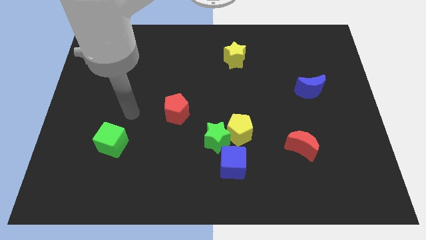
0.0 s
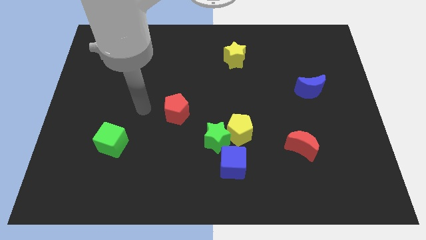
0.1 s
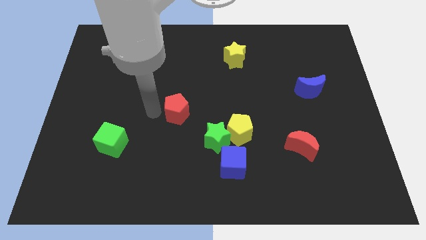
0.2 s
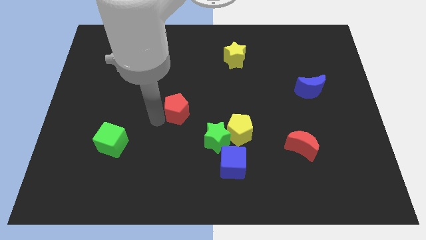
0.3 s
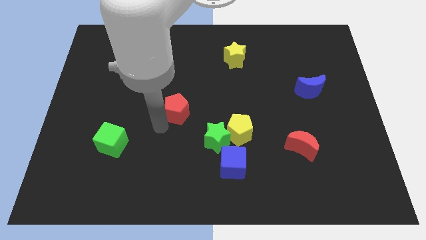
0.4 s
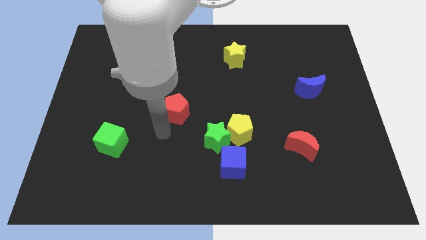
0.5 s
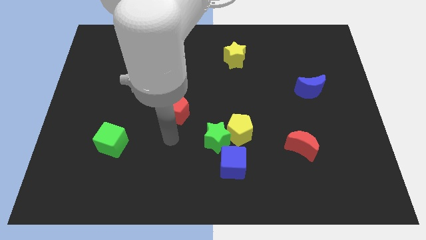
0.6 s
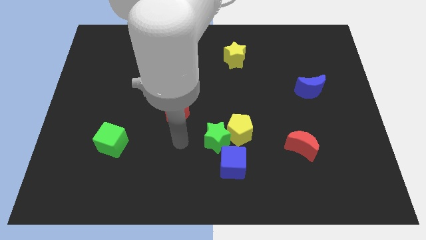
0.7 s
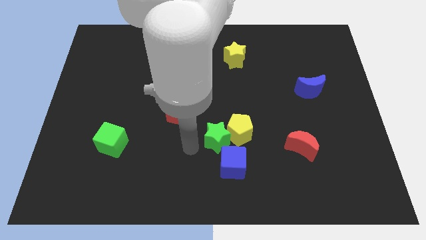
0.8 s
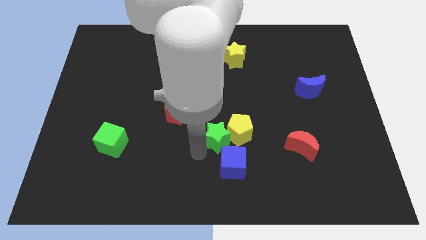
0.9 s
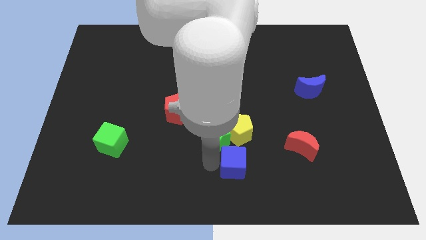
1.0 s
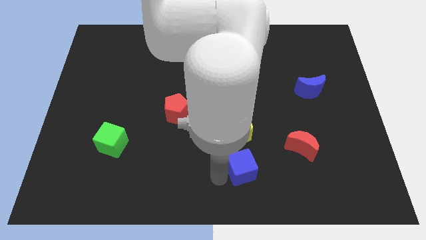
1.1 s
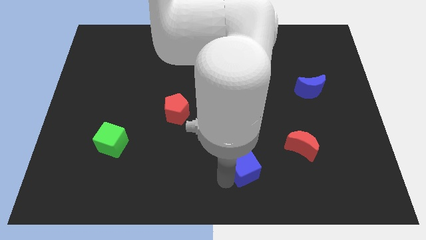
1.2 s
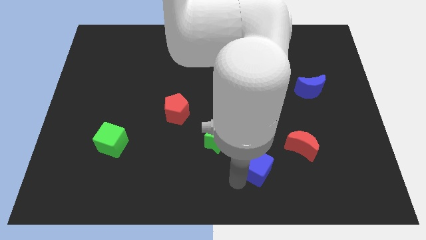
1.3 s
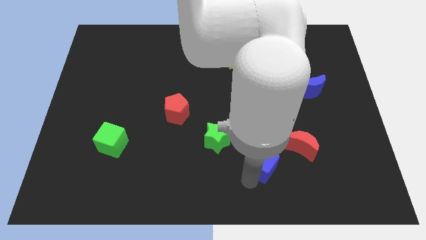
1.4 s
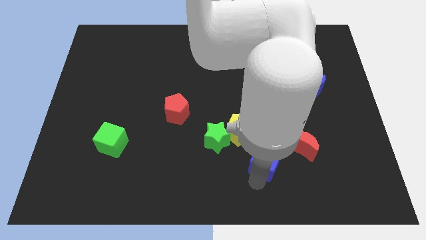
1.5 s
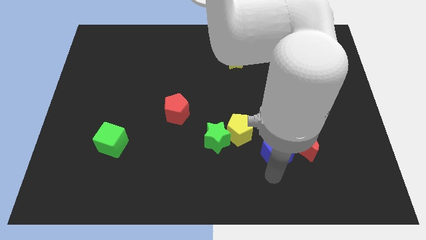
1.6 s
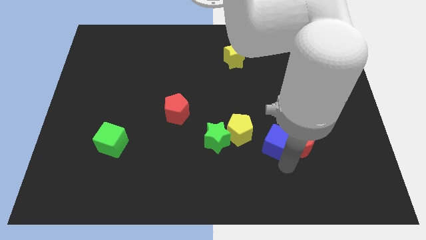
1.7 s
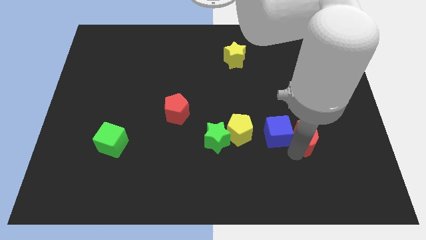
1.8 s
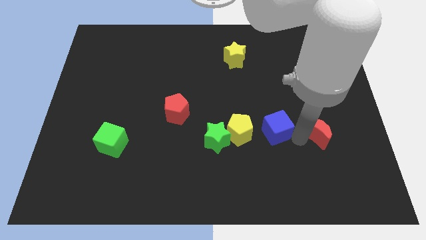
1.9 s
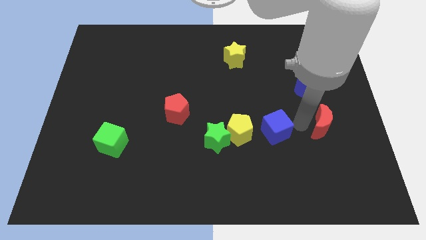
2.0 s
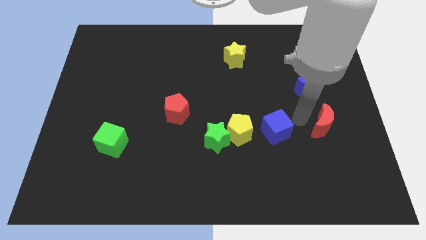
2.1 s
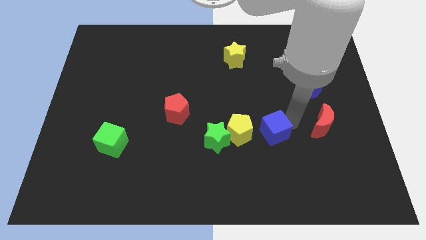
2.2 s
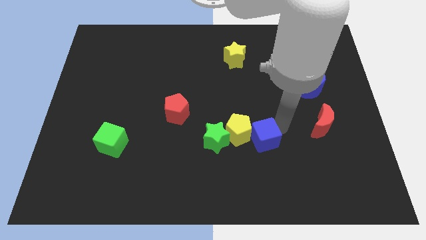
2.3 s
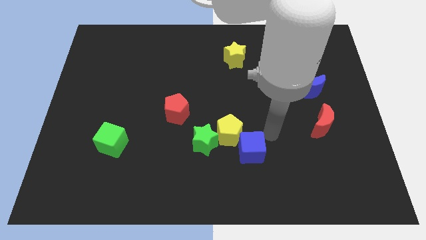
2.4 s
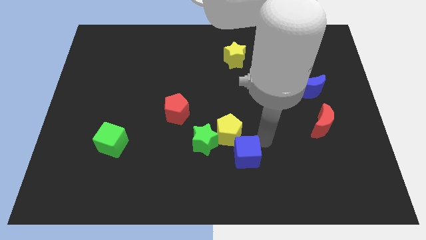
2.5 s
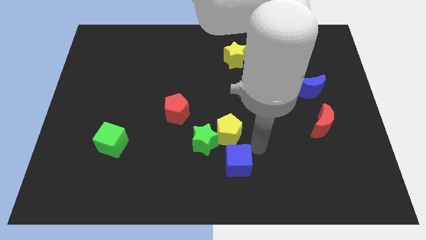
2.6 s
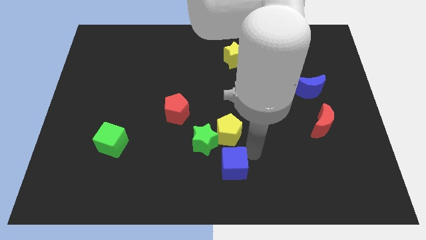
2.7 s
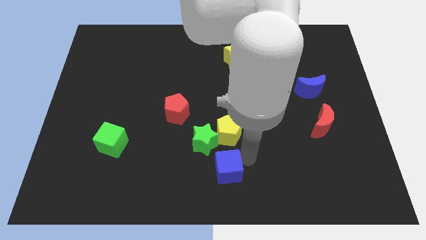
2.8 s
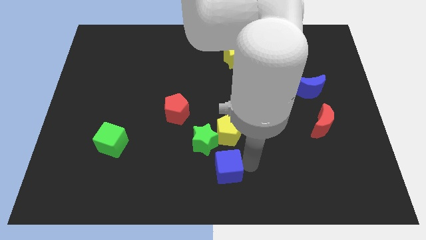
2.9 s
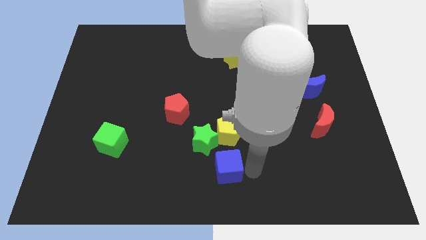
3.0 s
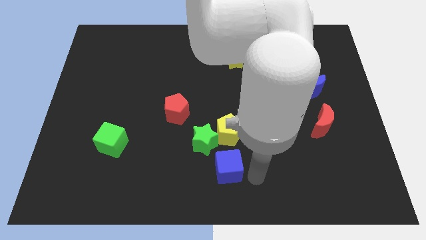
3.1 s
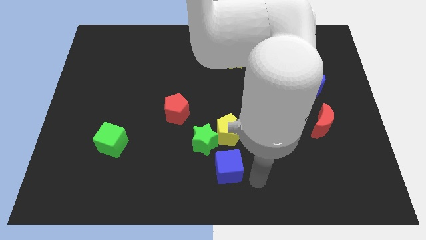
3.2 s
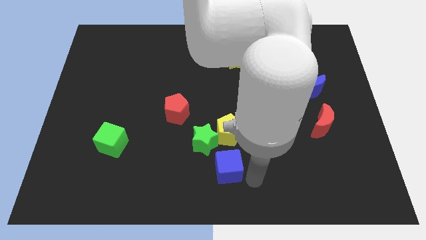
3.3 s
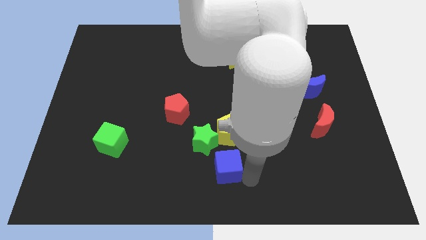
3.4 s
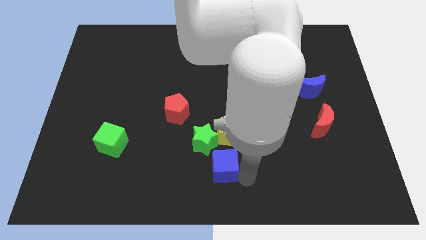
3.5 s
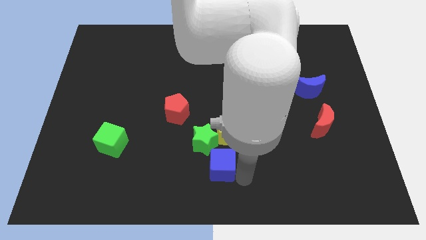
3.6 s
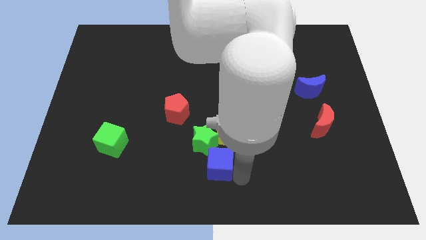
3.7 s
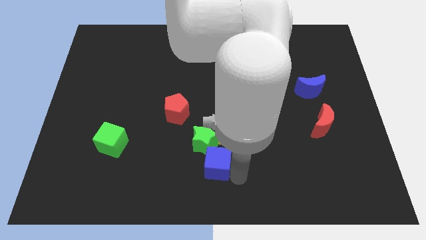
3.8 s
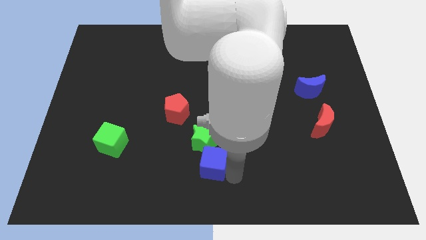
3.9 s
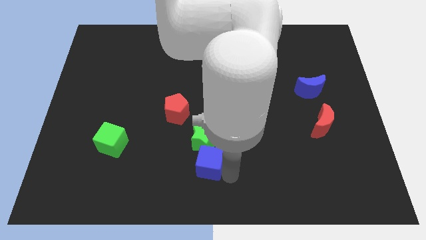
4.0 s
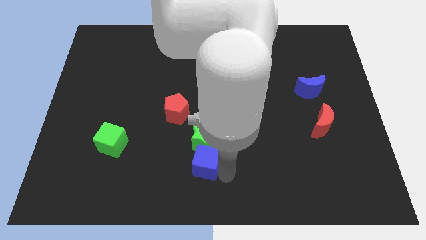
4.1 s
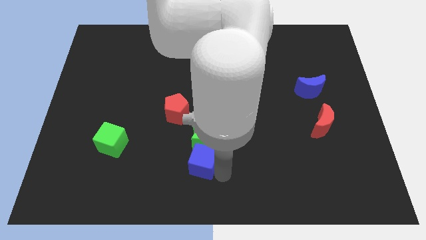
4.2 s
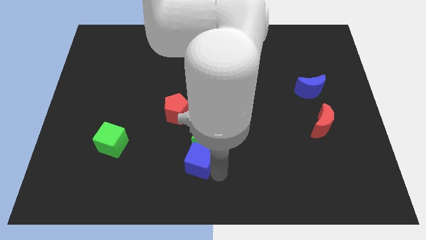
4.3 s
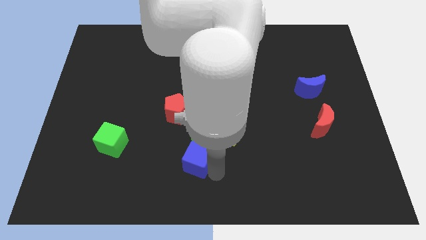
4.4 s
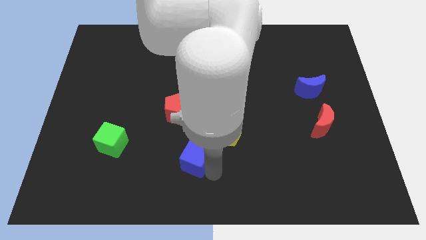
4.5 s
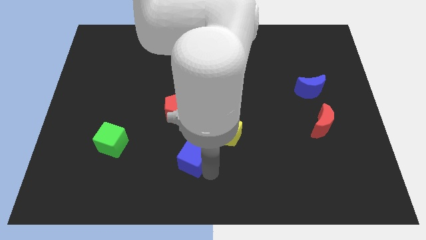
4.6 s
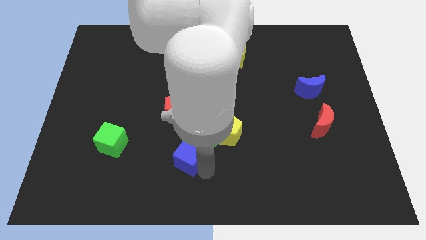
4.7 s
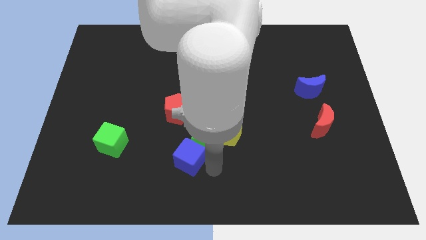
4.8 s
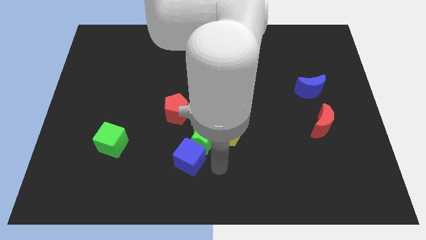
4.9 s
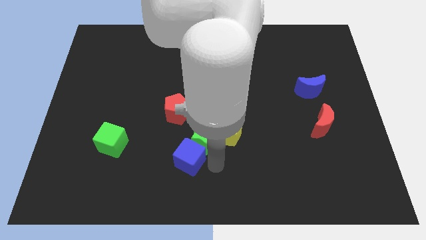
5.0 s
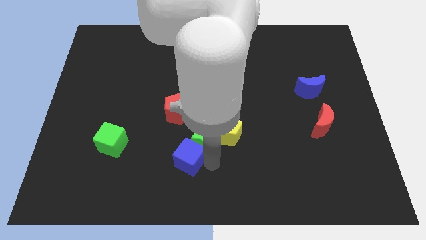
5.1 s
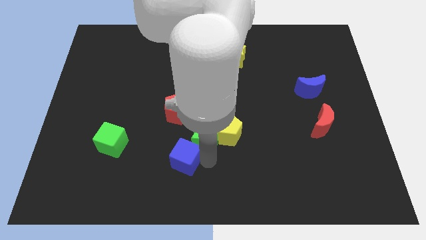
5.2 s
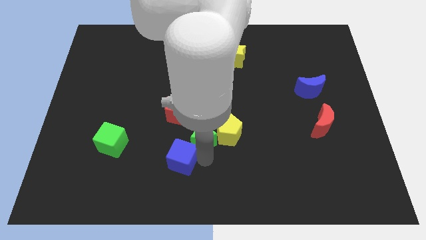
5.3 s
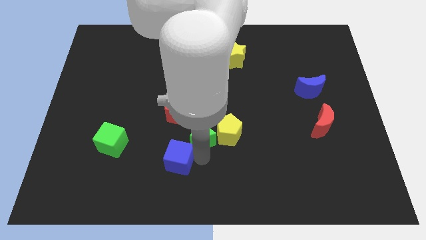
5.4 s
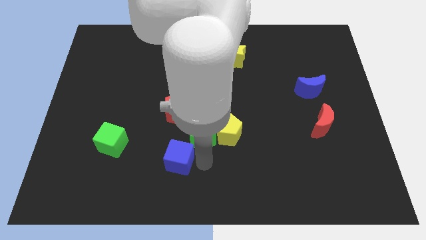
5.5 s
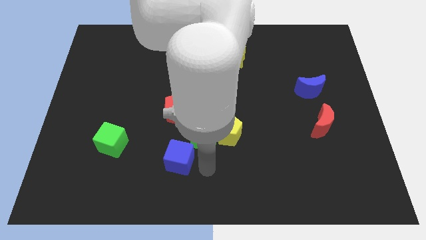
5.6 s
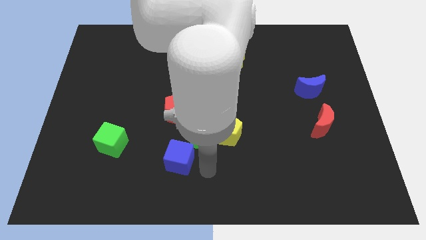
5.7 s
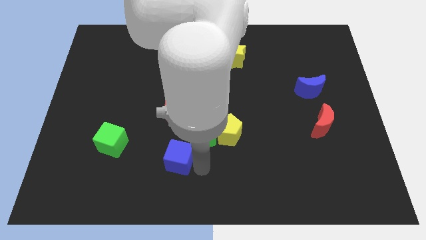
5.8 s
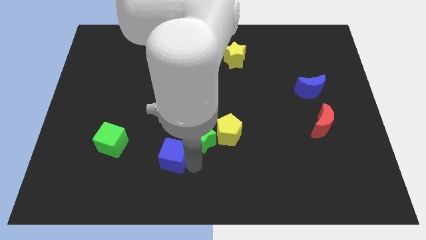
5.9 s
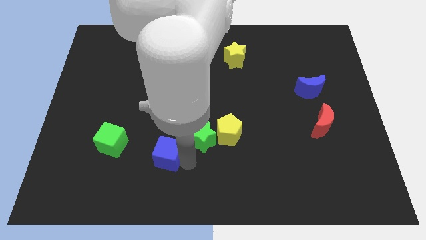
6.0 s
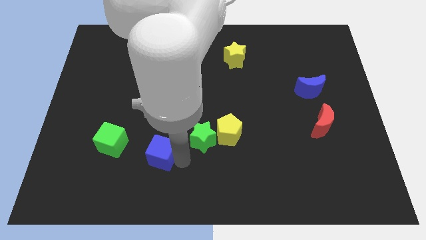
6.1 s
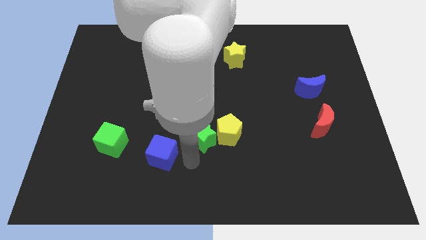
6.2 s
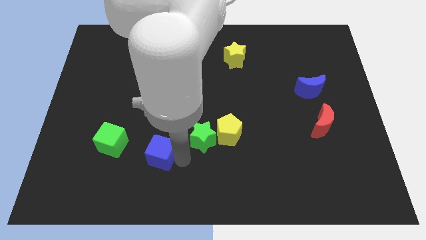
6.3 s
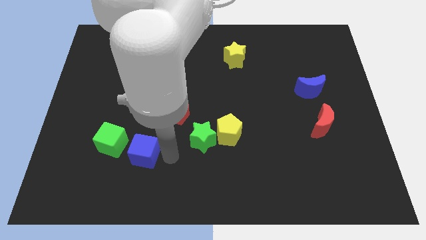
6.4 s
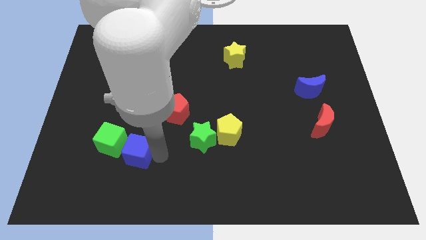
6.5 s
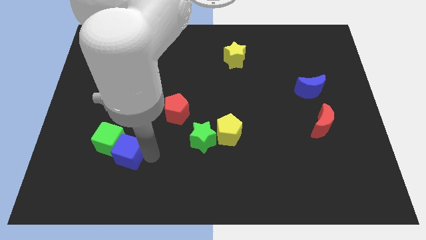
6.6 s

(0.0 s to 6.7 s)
put the blue cube towards the green cube
